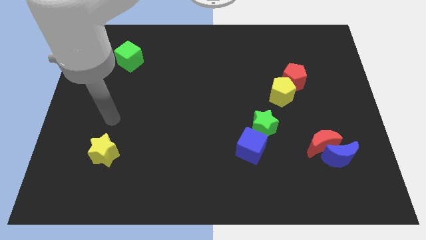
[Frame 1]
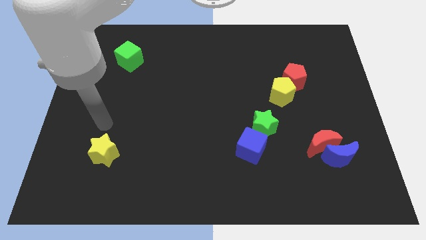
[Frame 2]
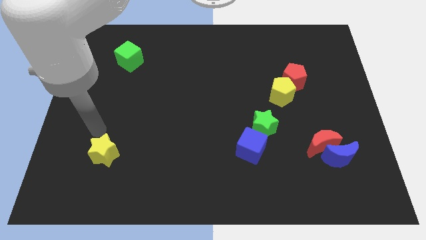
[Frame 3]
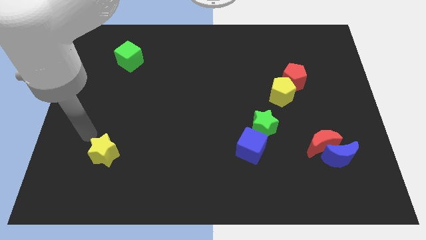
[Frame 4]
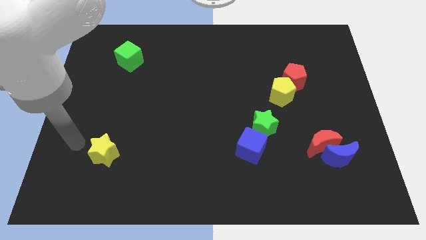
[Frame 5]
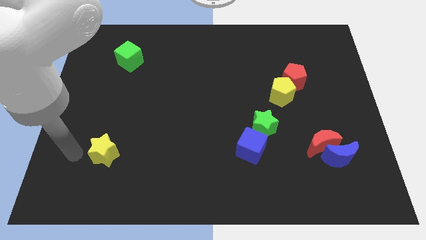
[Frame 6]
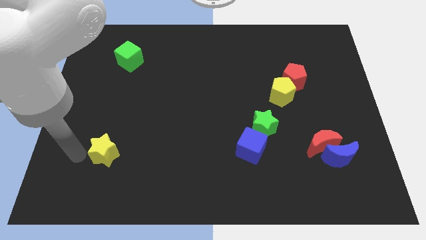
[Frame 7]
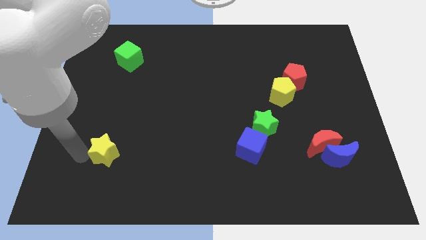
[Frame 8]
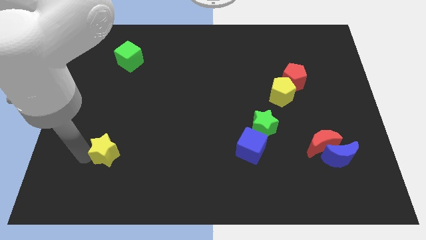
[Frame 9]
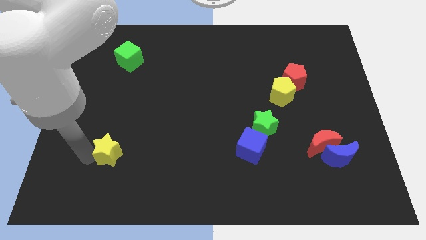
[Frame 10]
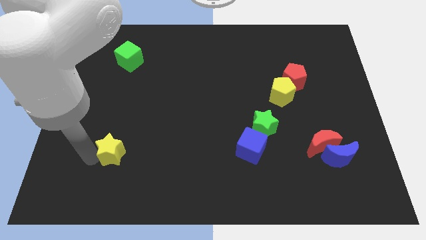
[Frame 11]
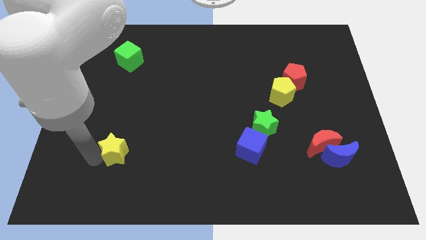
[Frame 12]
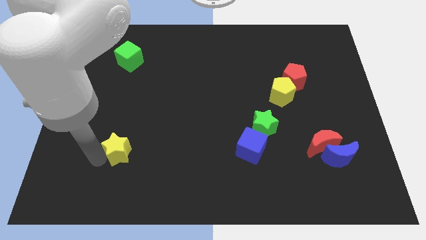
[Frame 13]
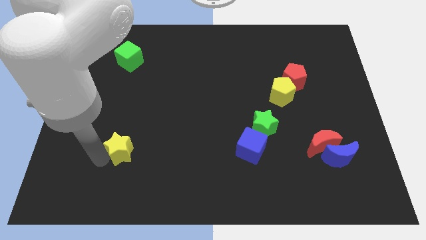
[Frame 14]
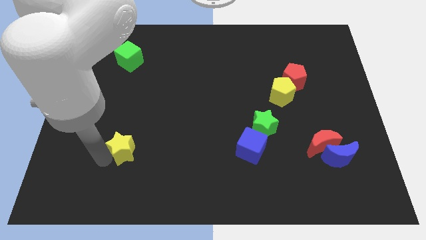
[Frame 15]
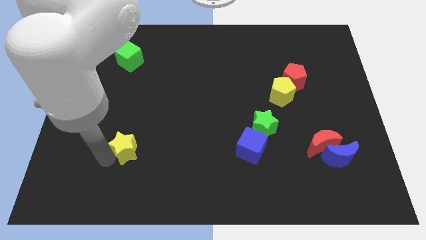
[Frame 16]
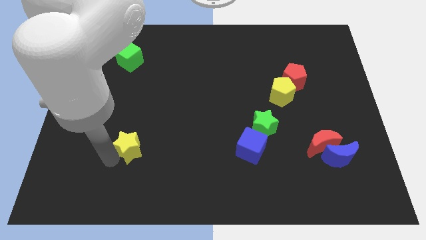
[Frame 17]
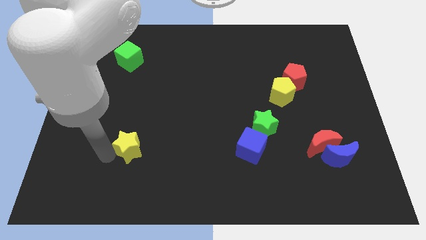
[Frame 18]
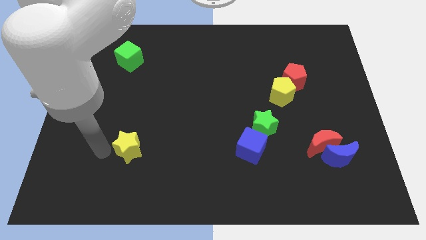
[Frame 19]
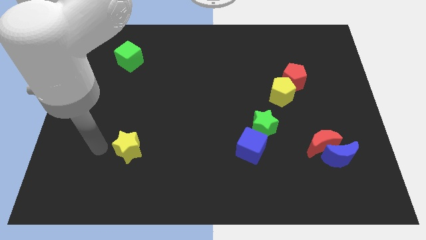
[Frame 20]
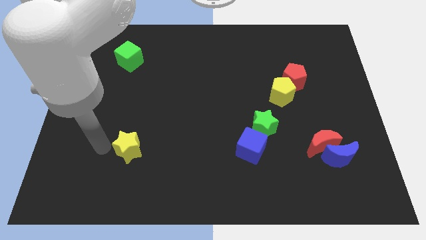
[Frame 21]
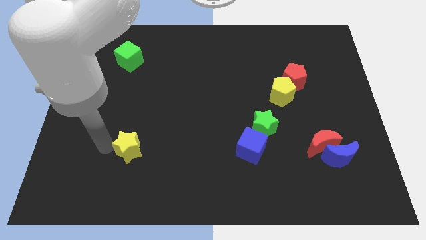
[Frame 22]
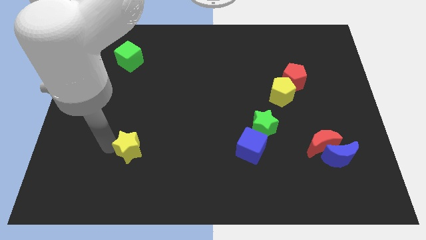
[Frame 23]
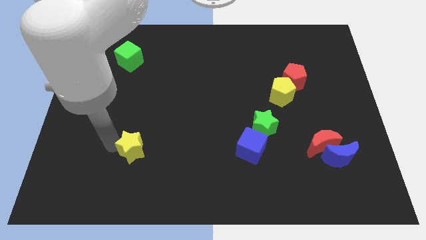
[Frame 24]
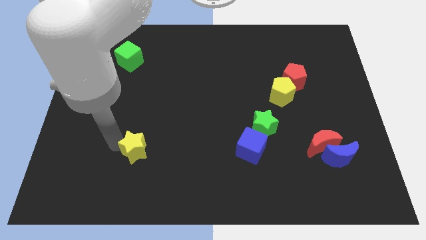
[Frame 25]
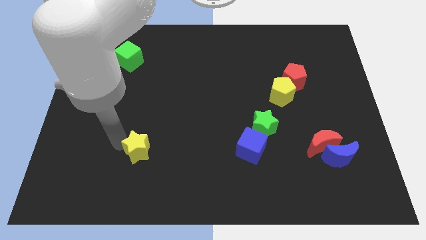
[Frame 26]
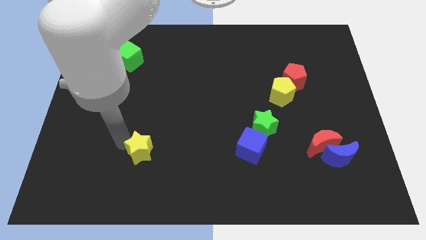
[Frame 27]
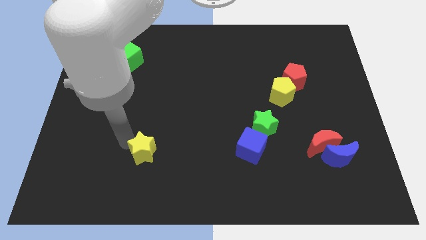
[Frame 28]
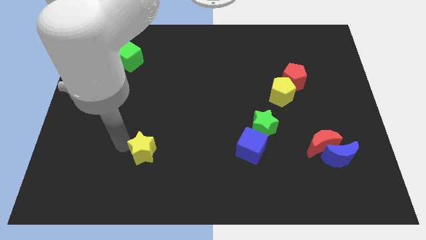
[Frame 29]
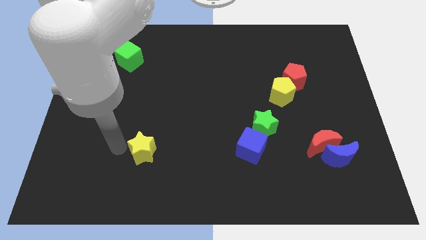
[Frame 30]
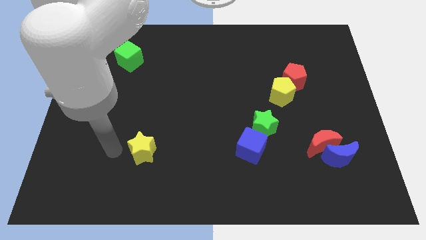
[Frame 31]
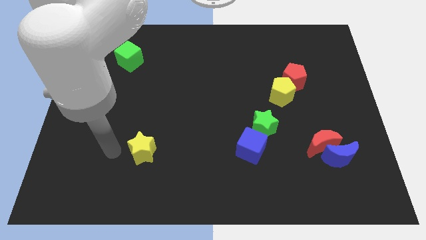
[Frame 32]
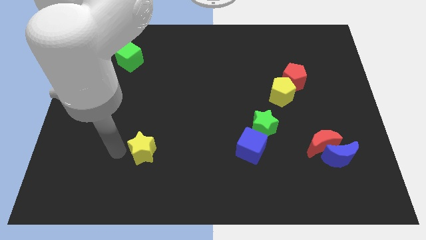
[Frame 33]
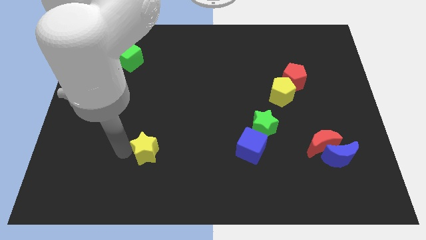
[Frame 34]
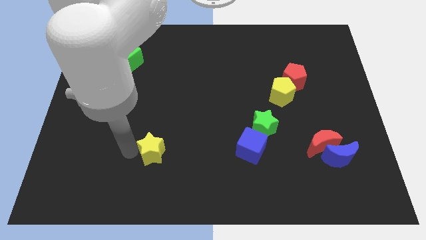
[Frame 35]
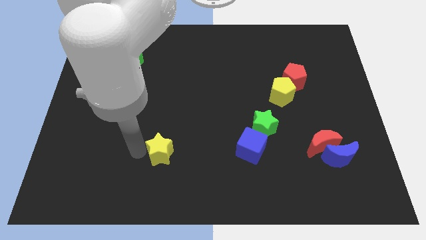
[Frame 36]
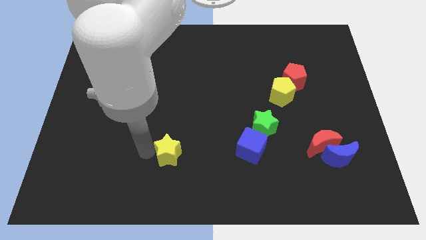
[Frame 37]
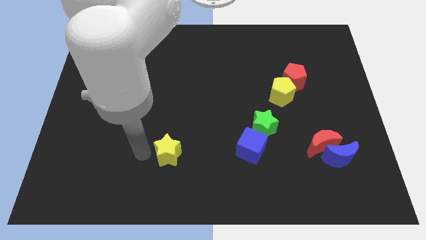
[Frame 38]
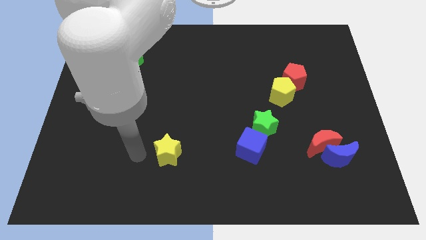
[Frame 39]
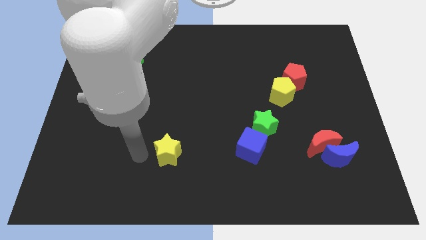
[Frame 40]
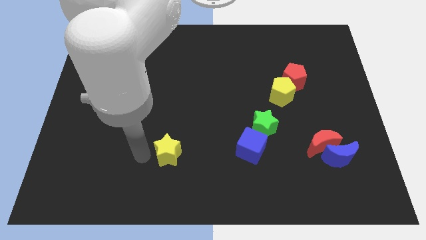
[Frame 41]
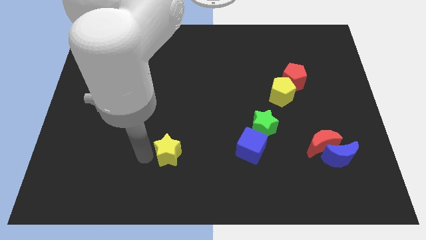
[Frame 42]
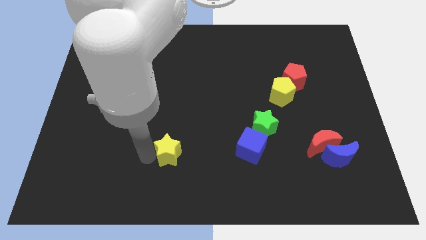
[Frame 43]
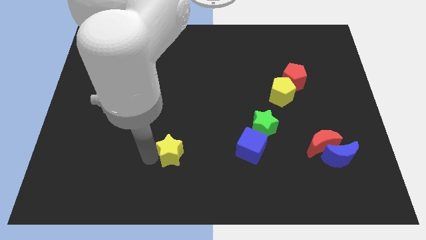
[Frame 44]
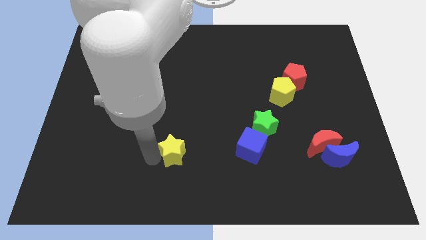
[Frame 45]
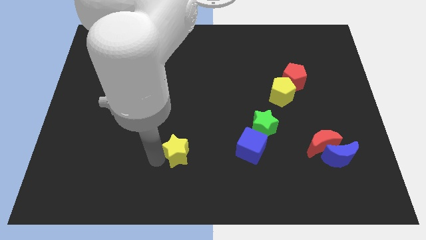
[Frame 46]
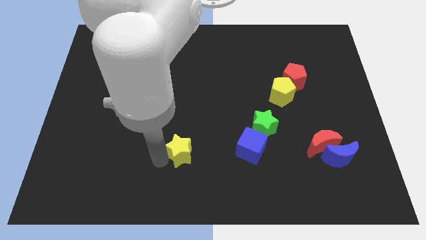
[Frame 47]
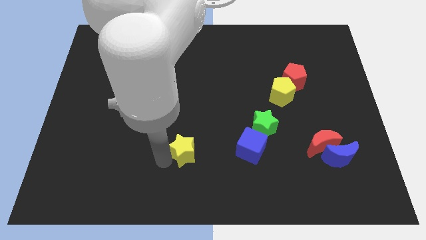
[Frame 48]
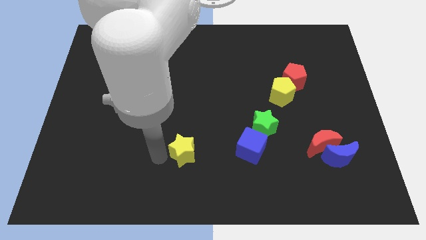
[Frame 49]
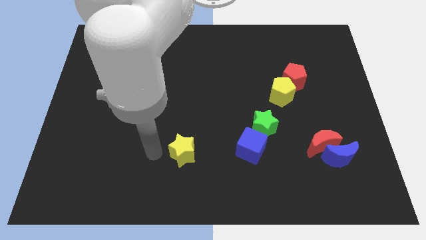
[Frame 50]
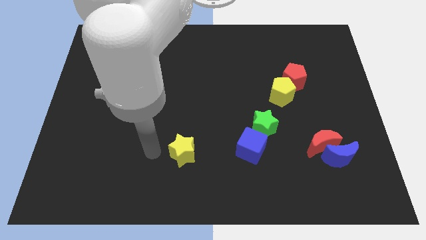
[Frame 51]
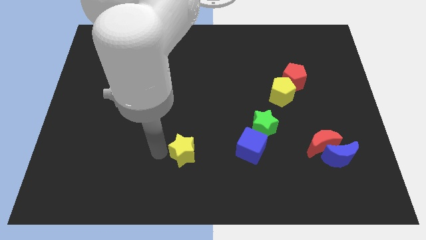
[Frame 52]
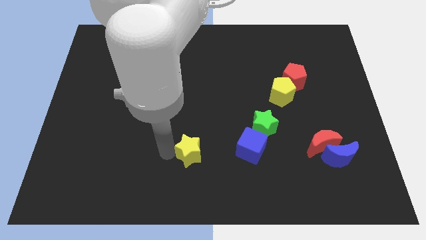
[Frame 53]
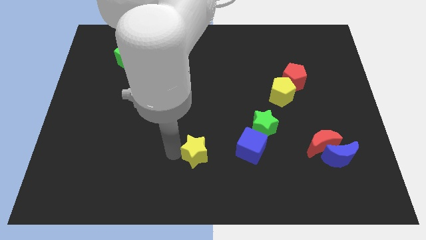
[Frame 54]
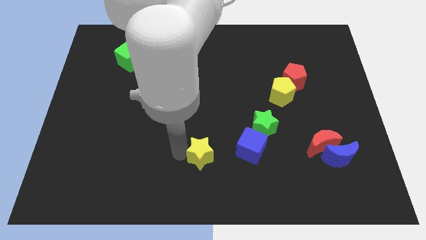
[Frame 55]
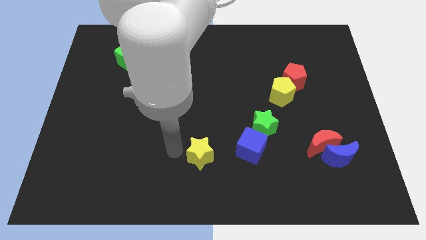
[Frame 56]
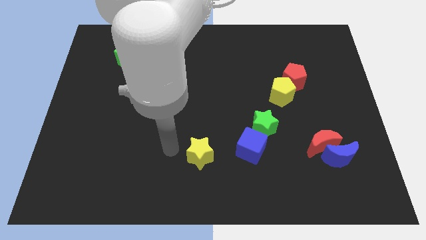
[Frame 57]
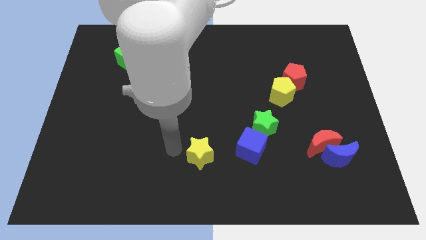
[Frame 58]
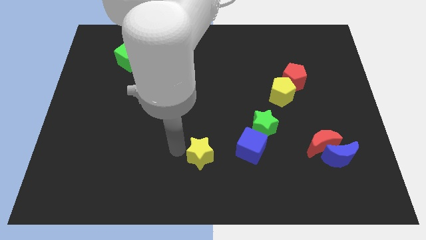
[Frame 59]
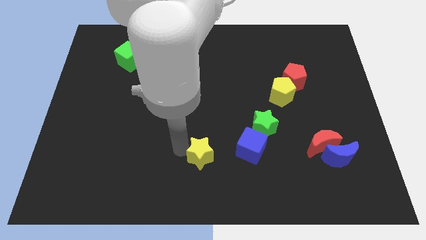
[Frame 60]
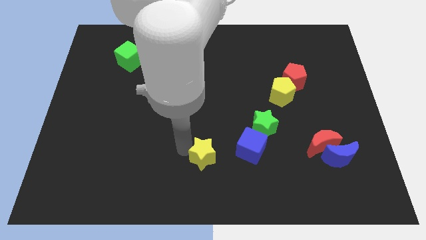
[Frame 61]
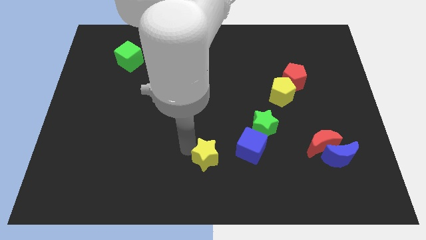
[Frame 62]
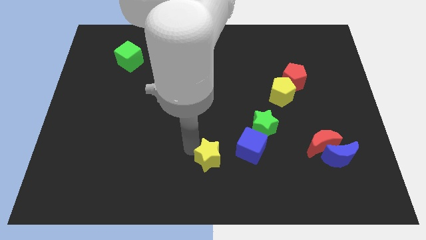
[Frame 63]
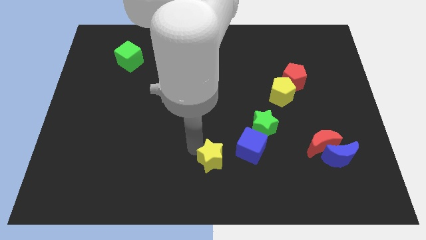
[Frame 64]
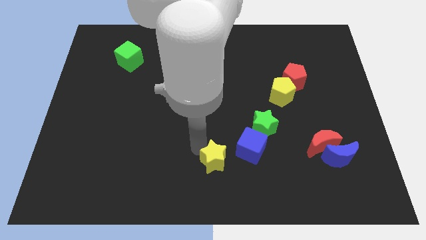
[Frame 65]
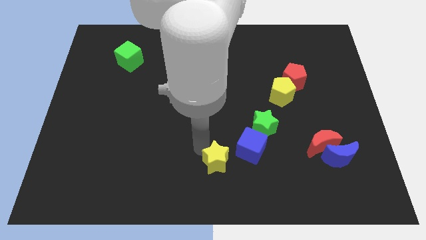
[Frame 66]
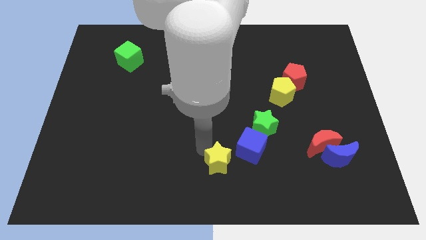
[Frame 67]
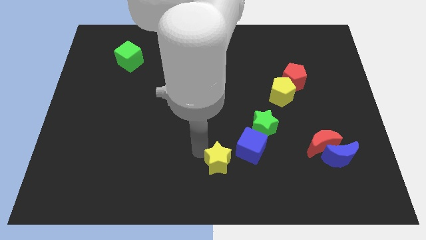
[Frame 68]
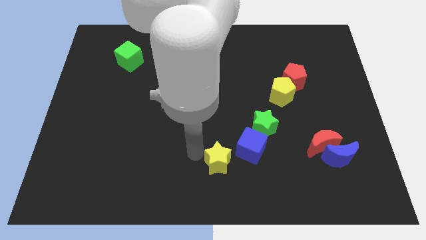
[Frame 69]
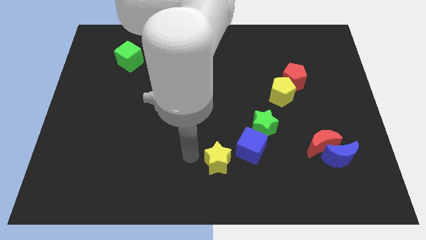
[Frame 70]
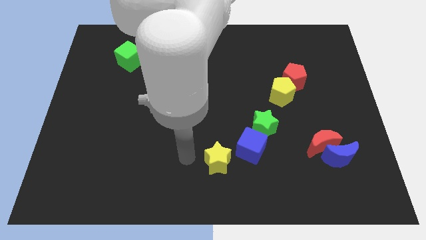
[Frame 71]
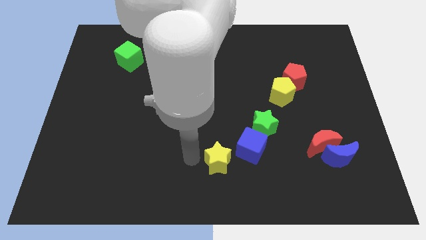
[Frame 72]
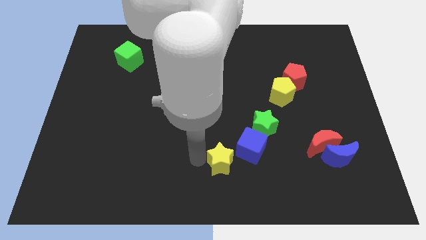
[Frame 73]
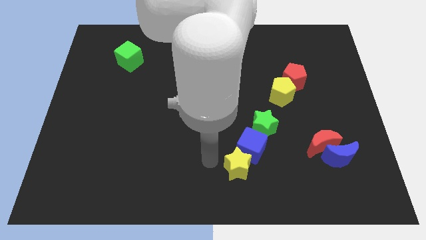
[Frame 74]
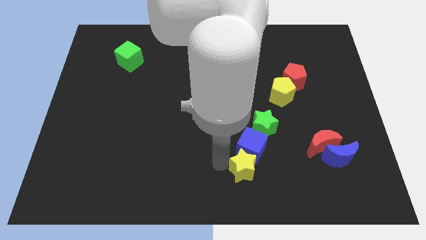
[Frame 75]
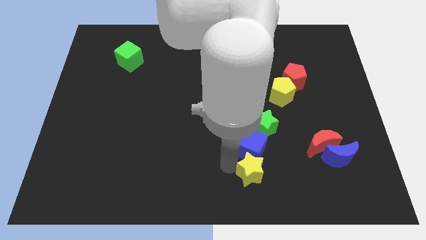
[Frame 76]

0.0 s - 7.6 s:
push the yellow star to the bottom right of the blue cube
